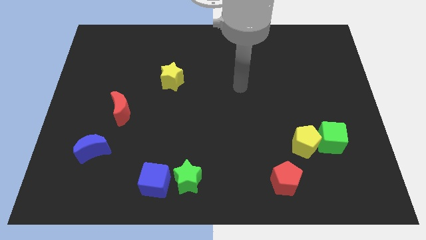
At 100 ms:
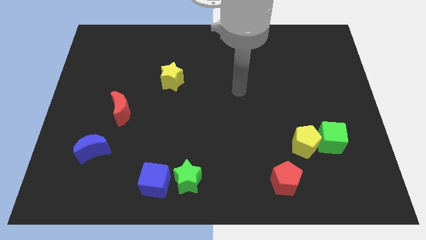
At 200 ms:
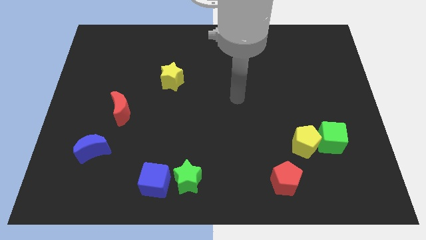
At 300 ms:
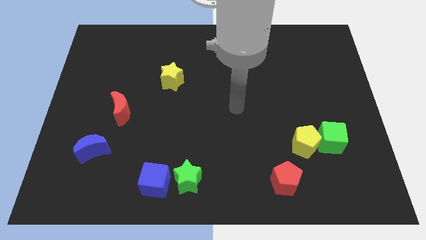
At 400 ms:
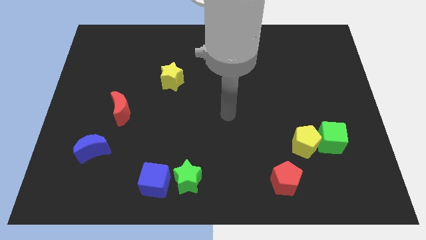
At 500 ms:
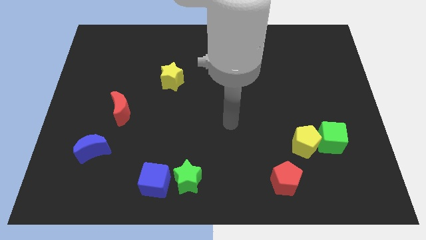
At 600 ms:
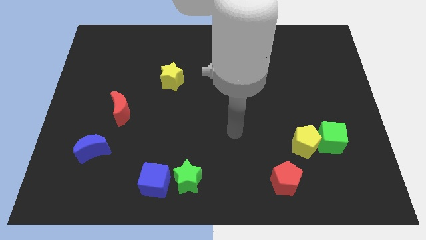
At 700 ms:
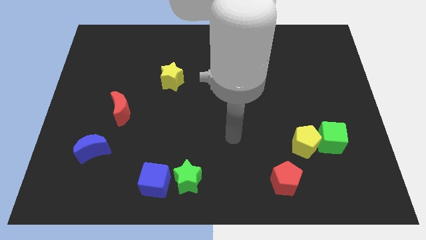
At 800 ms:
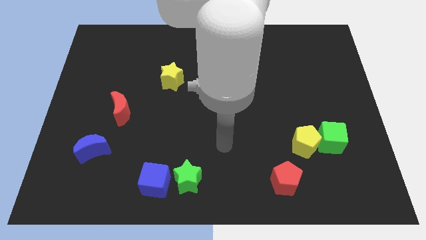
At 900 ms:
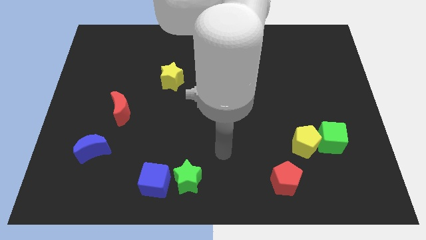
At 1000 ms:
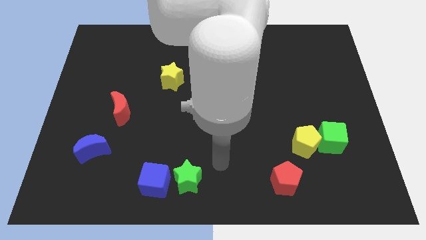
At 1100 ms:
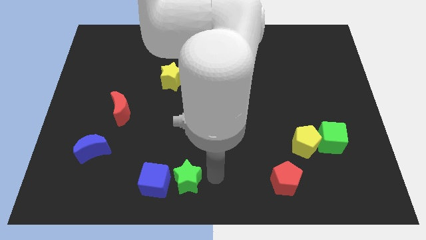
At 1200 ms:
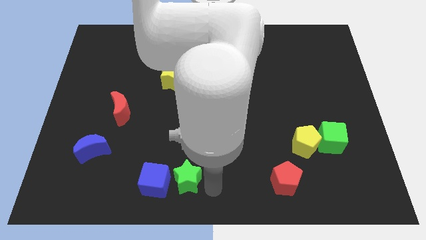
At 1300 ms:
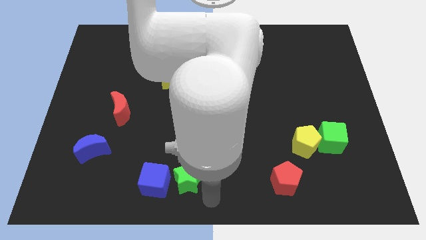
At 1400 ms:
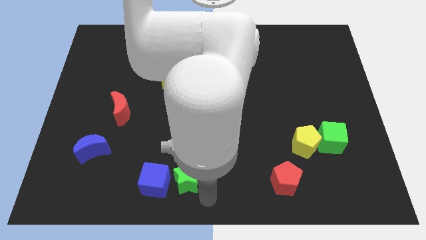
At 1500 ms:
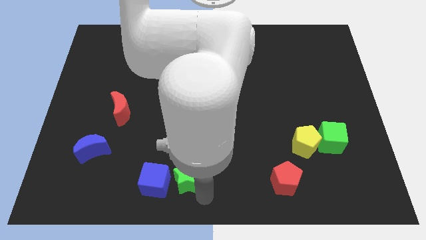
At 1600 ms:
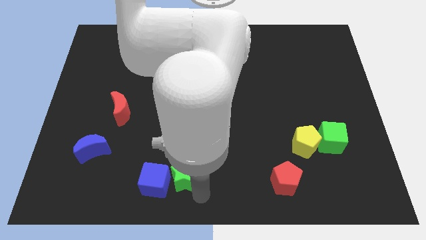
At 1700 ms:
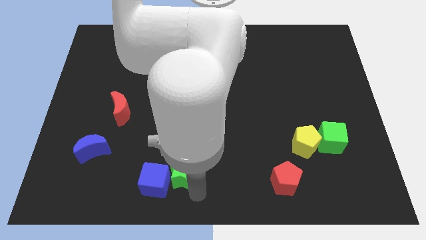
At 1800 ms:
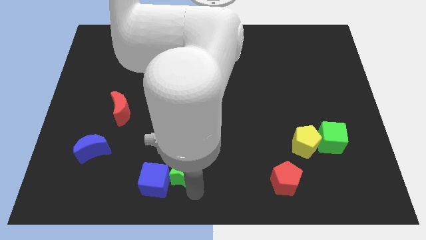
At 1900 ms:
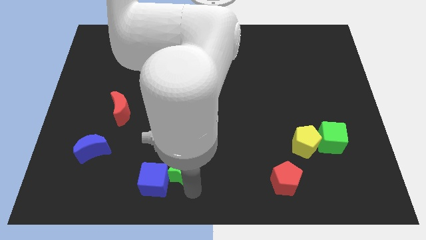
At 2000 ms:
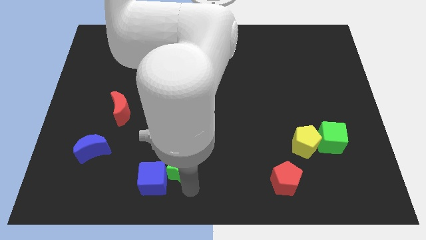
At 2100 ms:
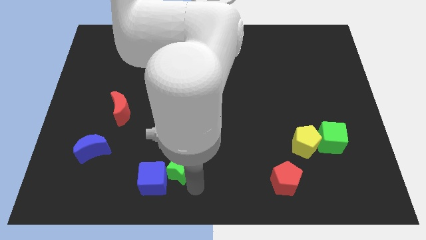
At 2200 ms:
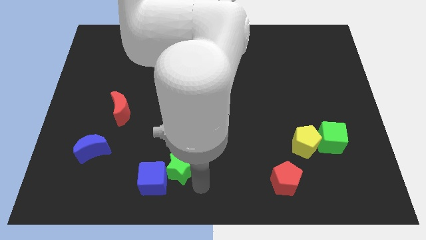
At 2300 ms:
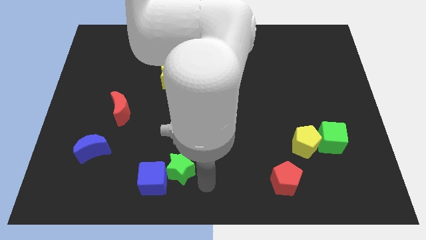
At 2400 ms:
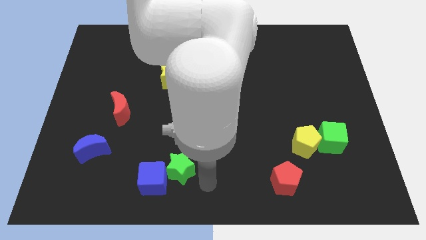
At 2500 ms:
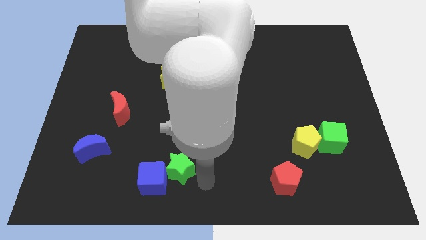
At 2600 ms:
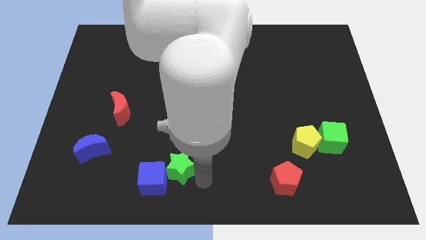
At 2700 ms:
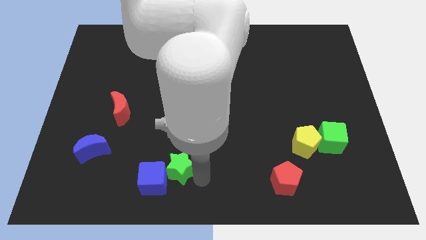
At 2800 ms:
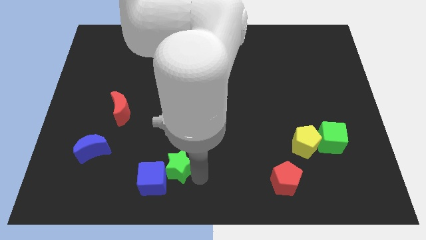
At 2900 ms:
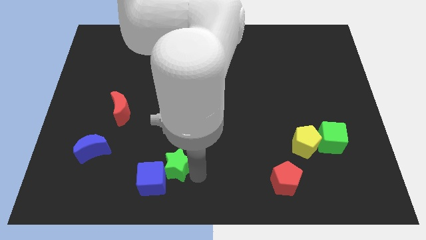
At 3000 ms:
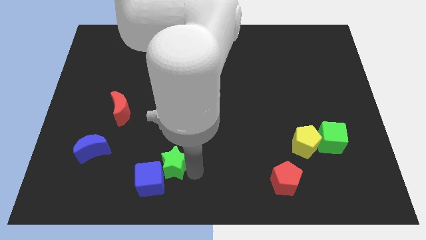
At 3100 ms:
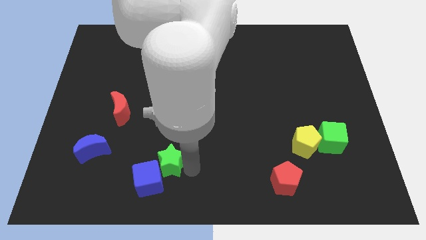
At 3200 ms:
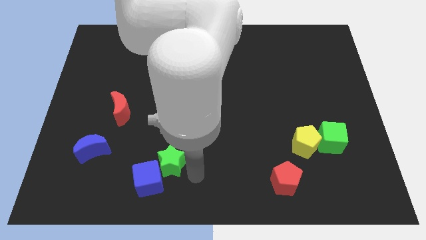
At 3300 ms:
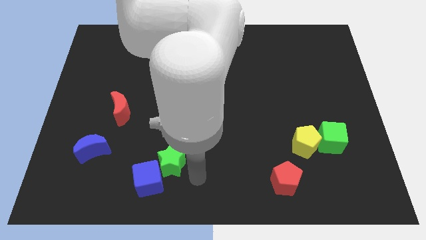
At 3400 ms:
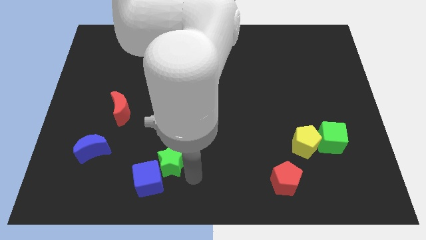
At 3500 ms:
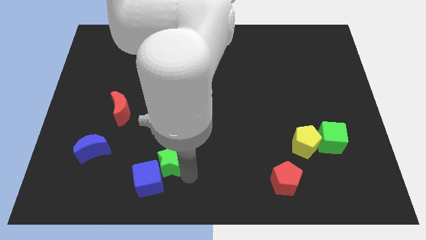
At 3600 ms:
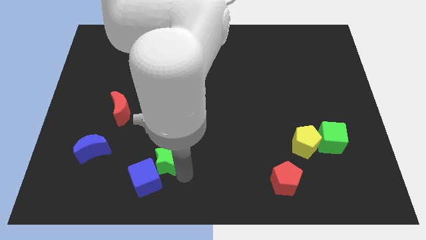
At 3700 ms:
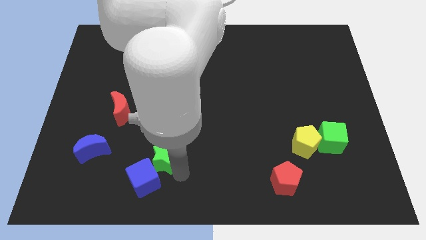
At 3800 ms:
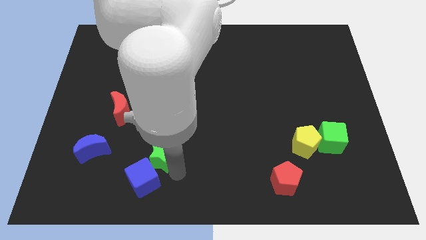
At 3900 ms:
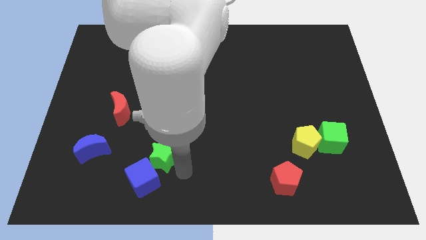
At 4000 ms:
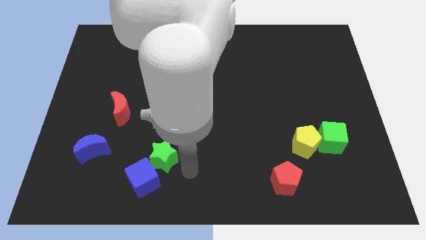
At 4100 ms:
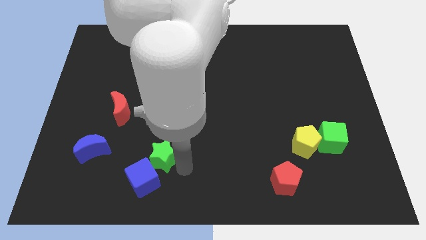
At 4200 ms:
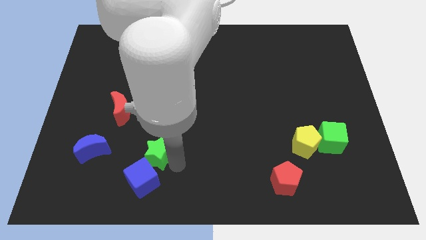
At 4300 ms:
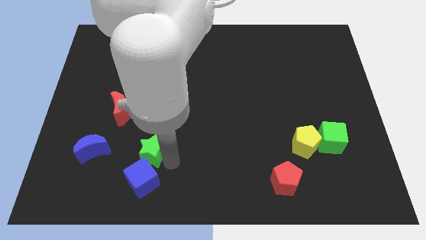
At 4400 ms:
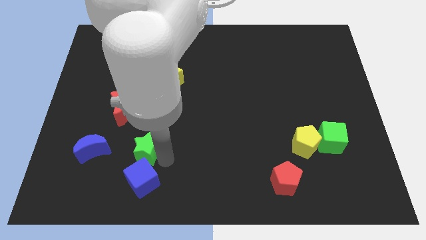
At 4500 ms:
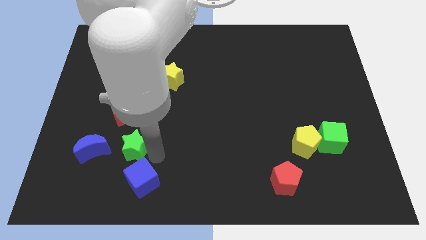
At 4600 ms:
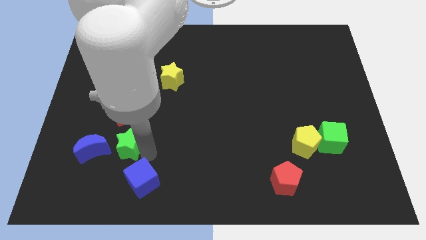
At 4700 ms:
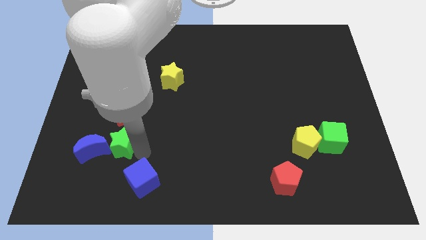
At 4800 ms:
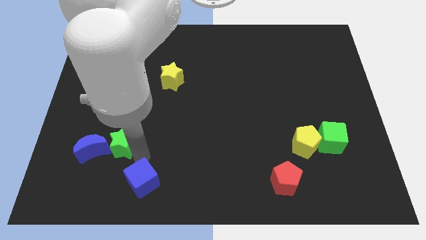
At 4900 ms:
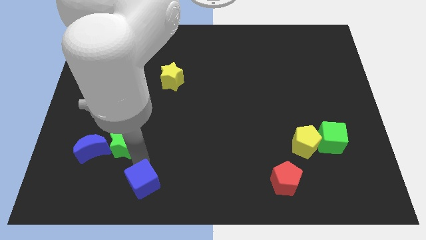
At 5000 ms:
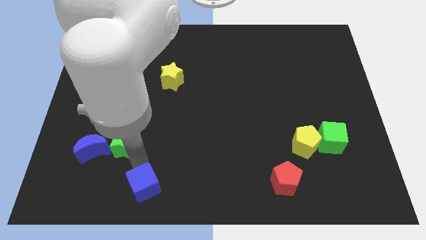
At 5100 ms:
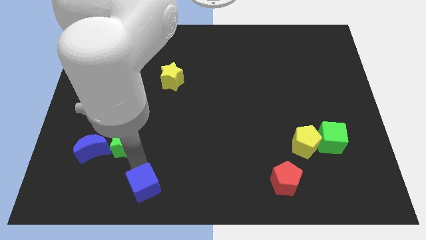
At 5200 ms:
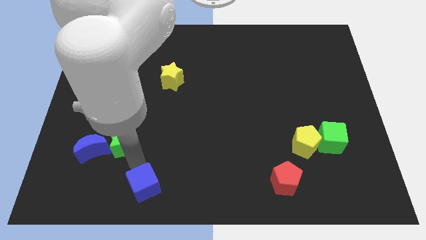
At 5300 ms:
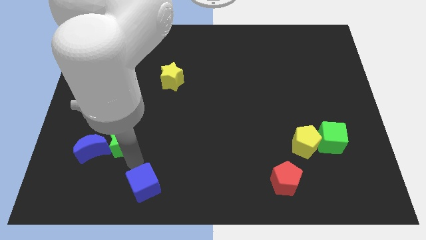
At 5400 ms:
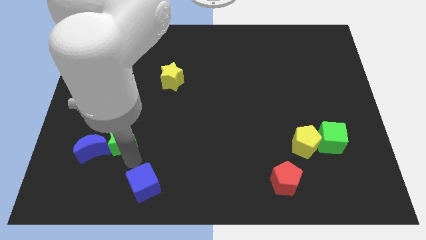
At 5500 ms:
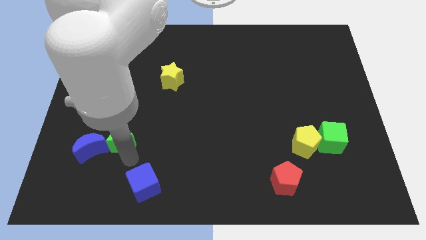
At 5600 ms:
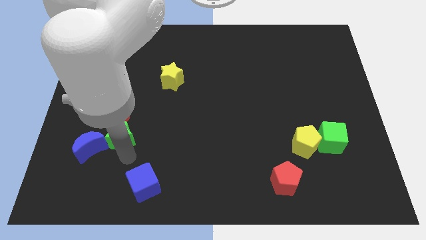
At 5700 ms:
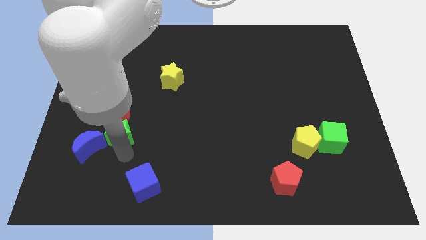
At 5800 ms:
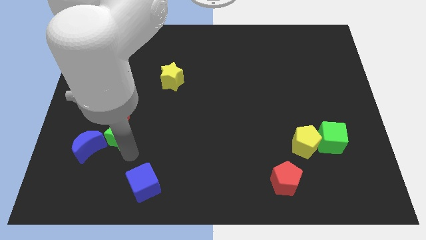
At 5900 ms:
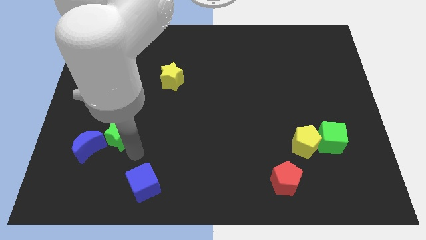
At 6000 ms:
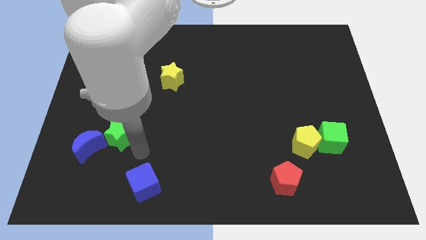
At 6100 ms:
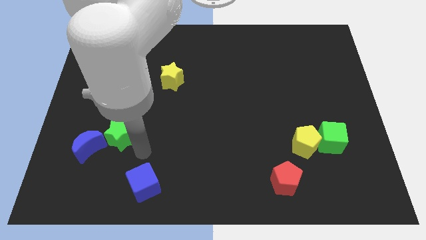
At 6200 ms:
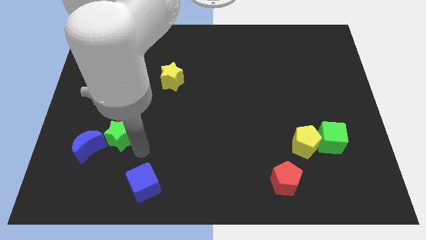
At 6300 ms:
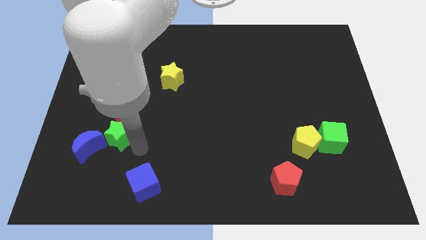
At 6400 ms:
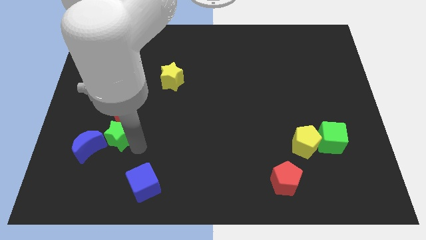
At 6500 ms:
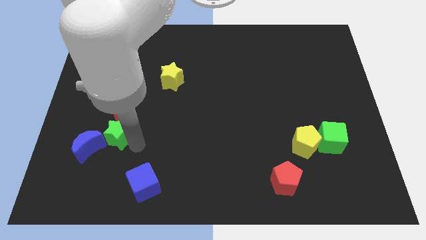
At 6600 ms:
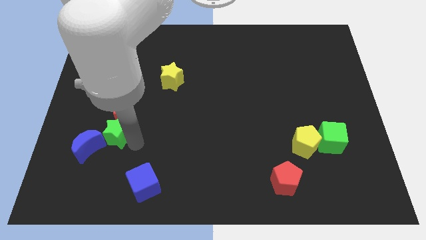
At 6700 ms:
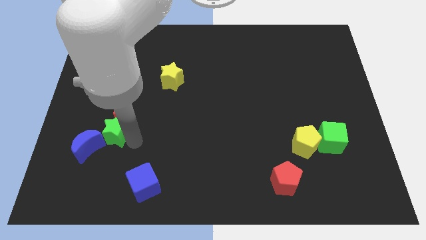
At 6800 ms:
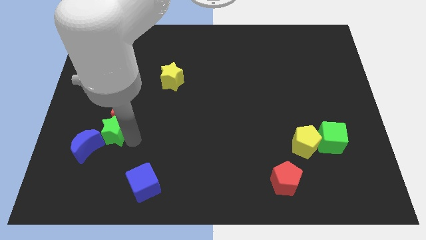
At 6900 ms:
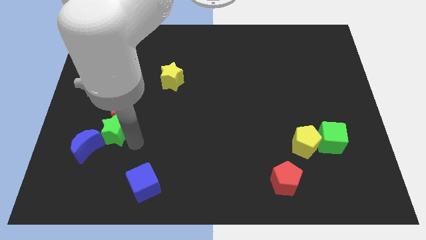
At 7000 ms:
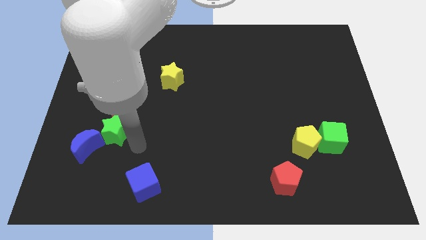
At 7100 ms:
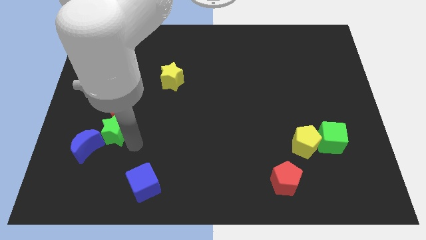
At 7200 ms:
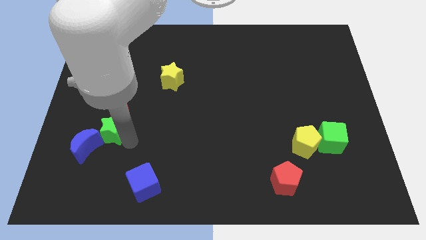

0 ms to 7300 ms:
push the green star diagonally upwards and left

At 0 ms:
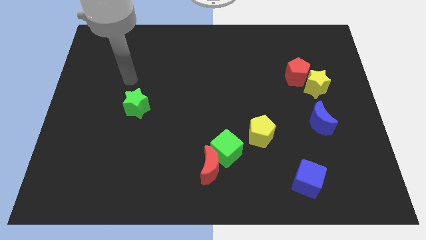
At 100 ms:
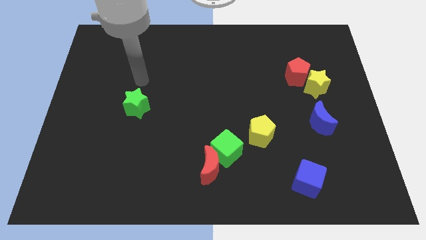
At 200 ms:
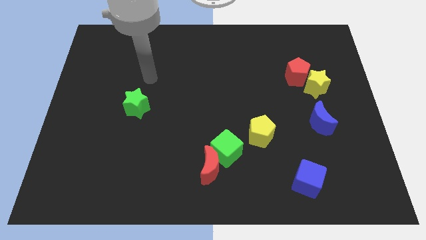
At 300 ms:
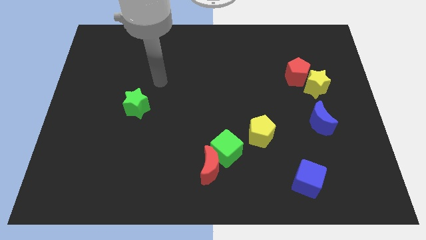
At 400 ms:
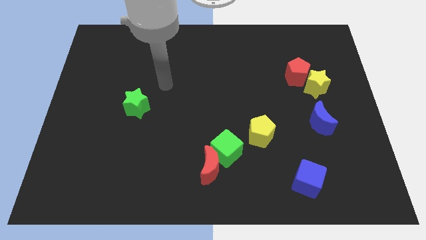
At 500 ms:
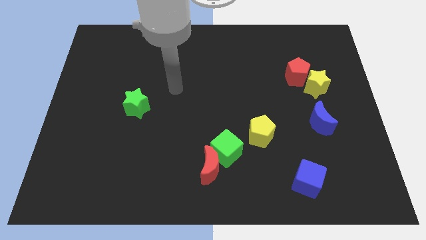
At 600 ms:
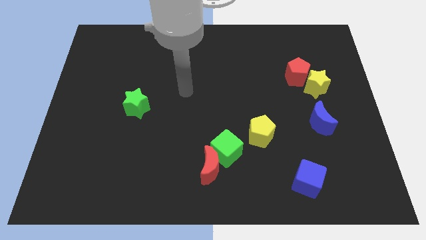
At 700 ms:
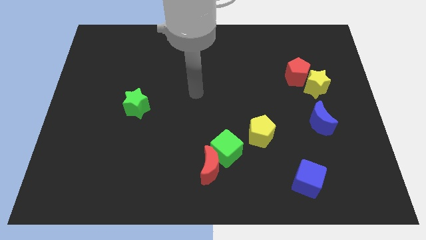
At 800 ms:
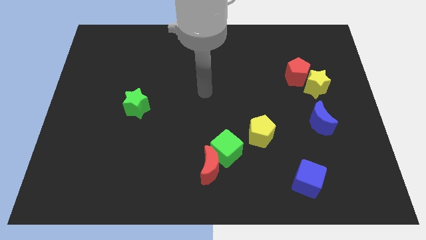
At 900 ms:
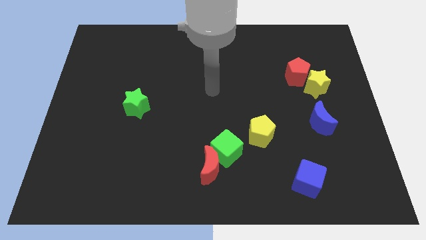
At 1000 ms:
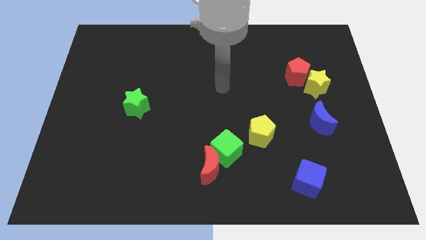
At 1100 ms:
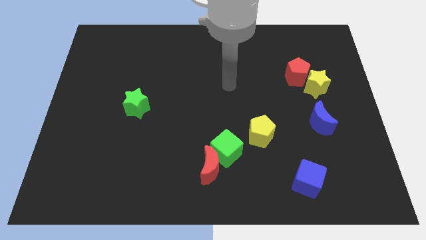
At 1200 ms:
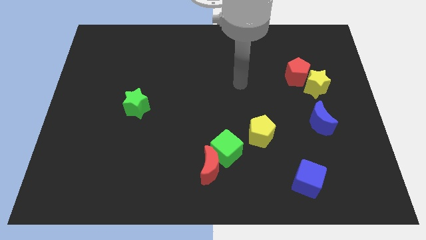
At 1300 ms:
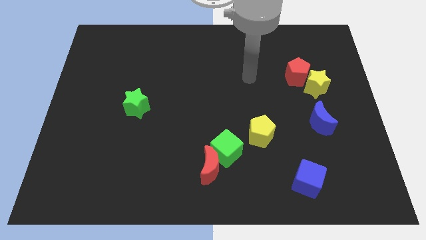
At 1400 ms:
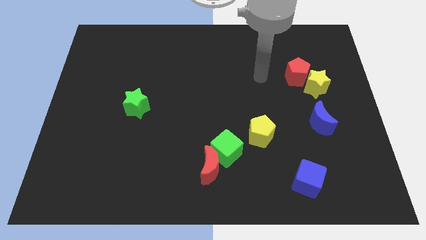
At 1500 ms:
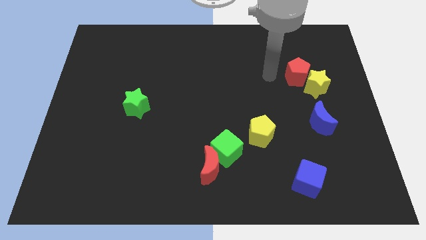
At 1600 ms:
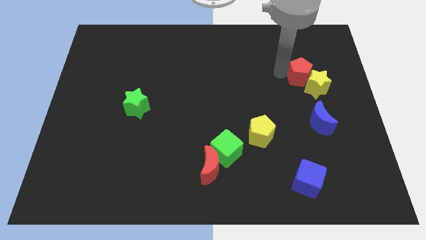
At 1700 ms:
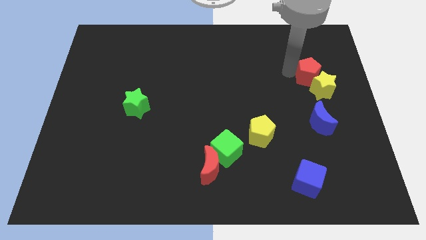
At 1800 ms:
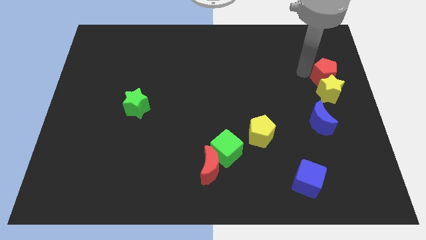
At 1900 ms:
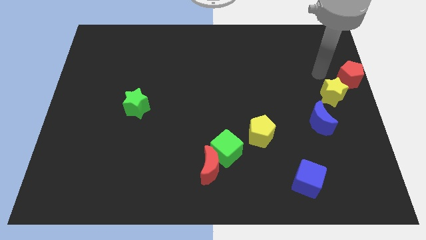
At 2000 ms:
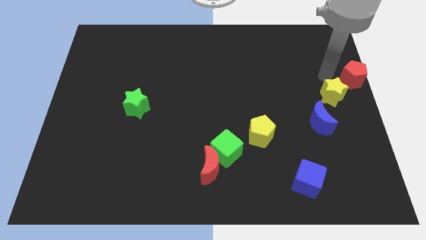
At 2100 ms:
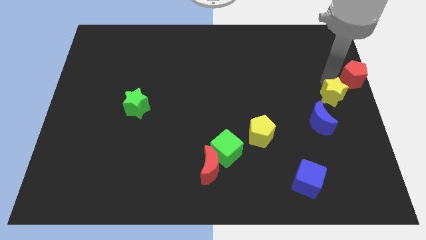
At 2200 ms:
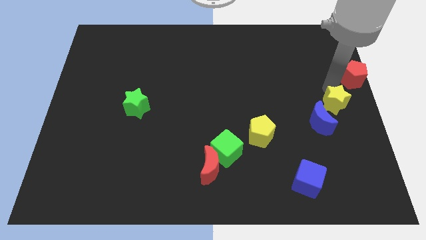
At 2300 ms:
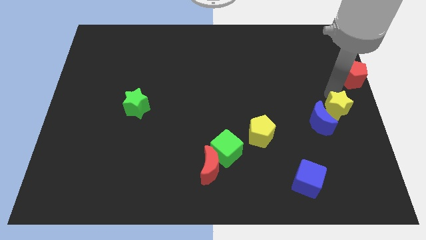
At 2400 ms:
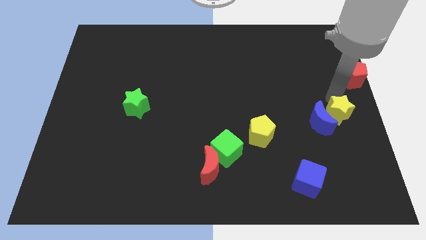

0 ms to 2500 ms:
slide the yellow star a little down
